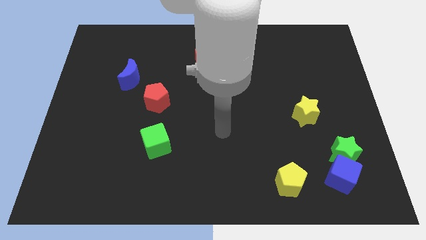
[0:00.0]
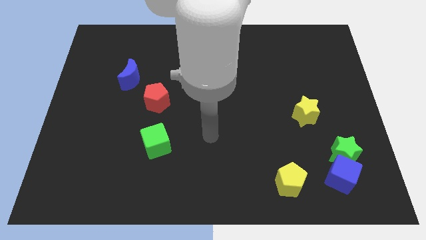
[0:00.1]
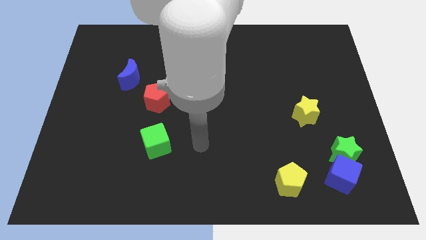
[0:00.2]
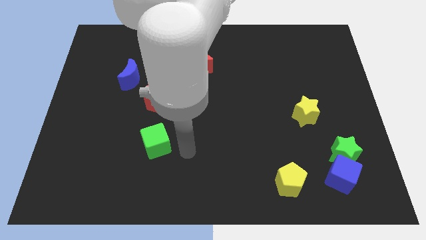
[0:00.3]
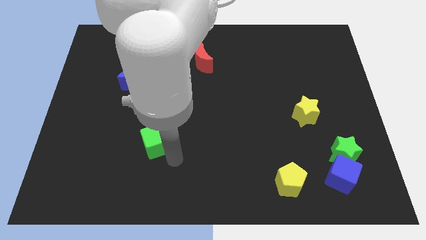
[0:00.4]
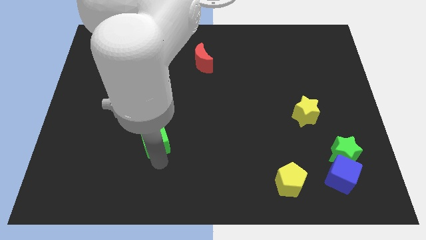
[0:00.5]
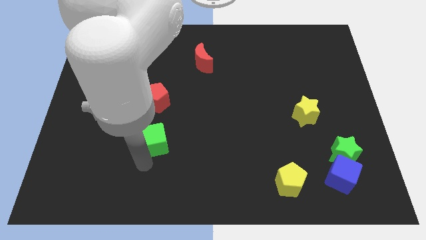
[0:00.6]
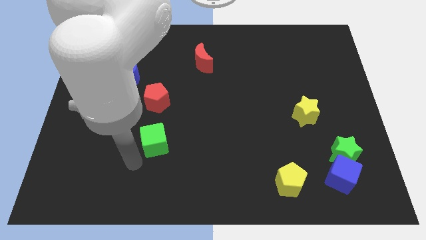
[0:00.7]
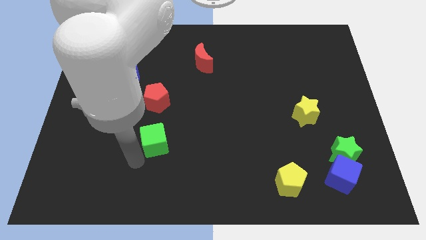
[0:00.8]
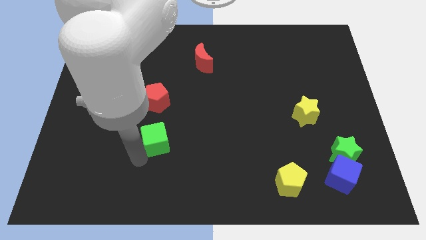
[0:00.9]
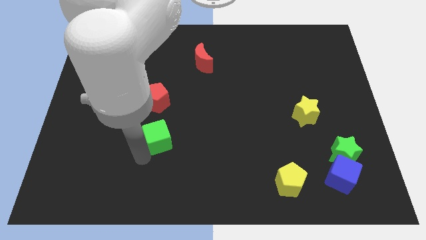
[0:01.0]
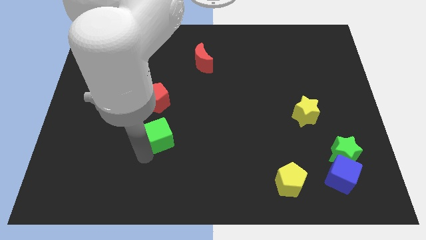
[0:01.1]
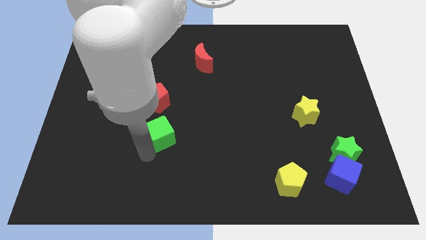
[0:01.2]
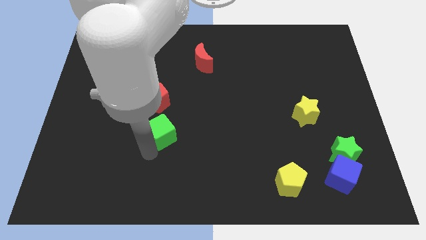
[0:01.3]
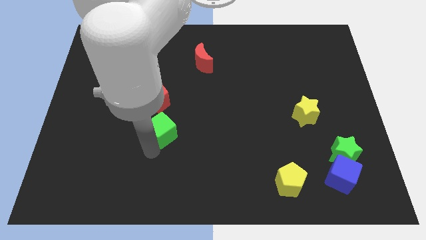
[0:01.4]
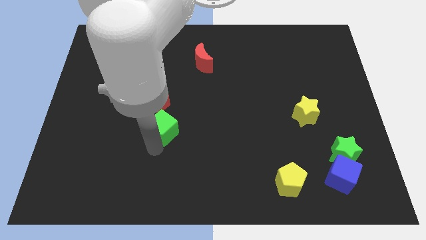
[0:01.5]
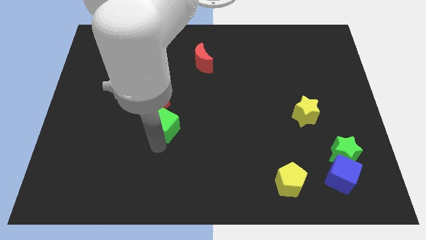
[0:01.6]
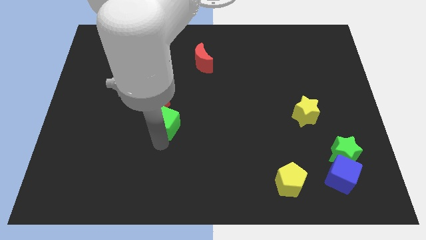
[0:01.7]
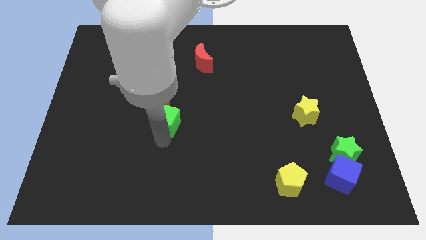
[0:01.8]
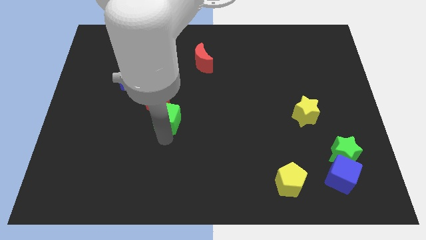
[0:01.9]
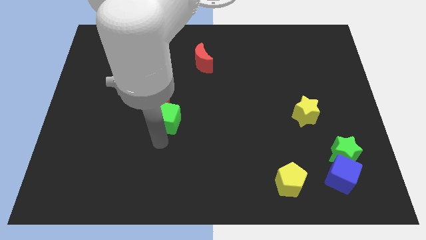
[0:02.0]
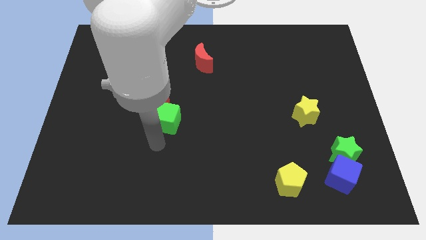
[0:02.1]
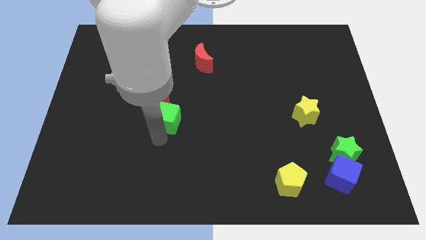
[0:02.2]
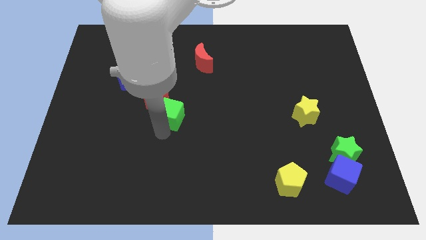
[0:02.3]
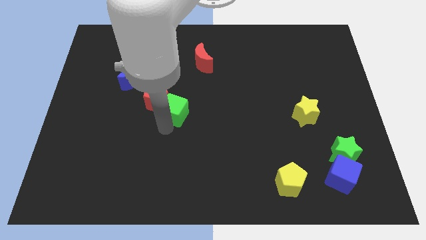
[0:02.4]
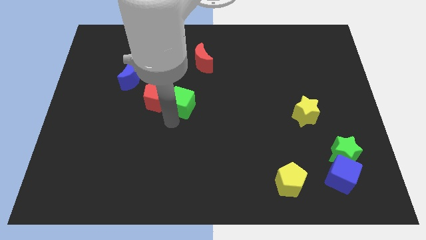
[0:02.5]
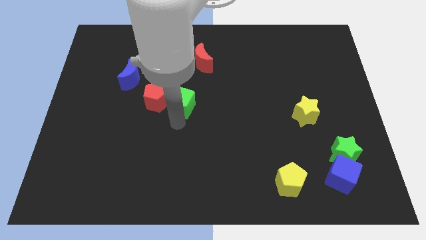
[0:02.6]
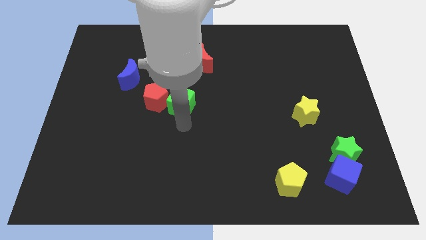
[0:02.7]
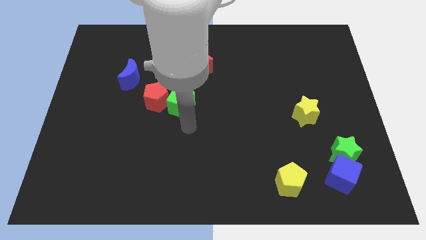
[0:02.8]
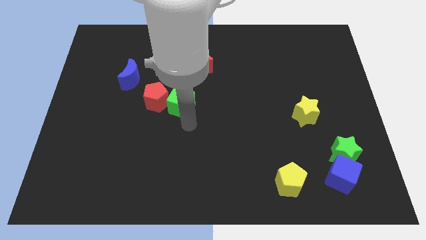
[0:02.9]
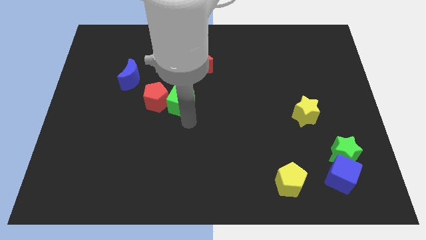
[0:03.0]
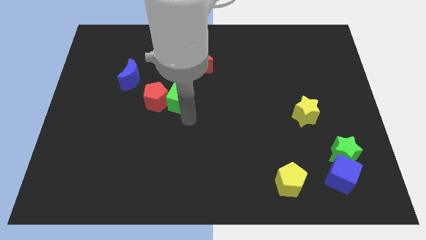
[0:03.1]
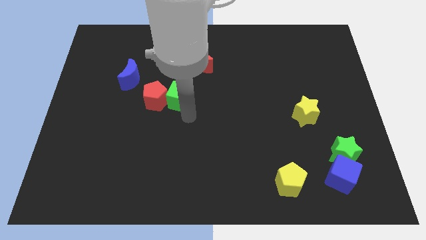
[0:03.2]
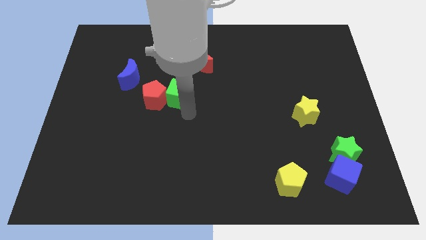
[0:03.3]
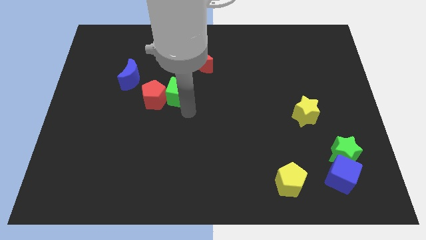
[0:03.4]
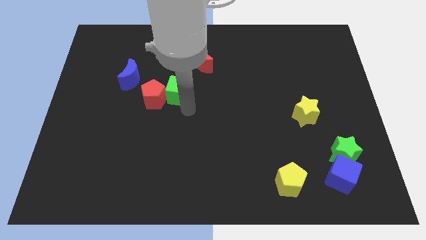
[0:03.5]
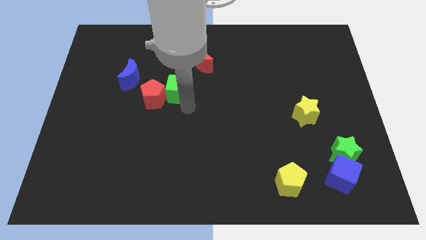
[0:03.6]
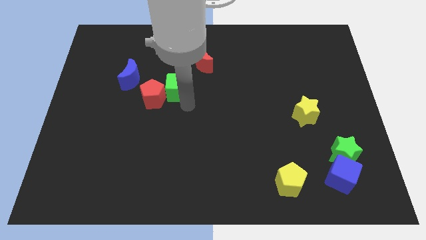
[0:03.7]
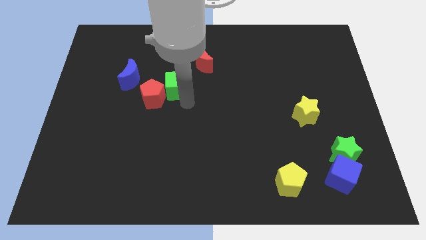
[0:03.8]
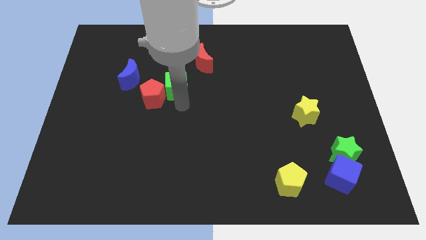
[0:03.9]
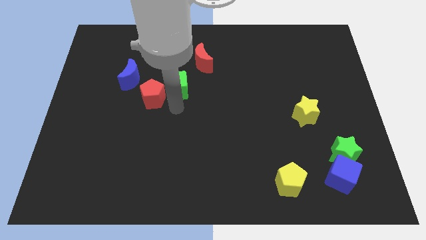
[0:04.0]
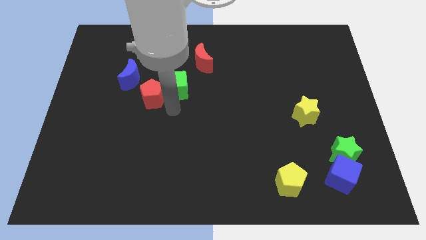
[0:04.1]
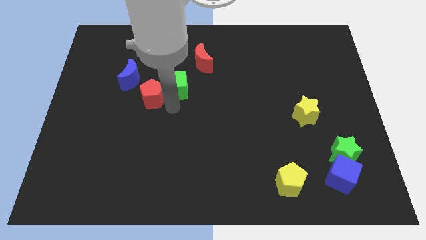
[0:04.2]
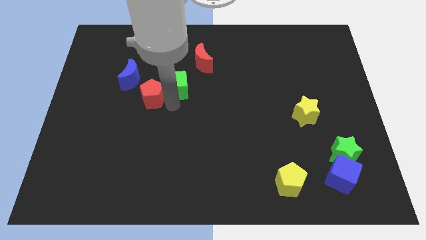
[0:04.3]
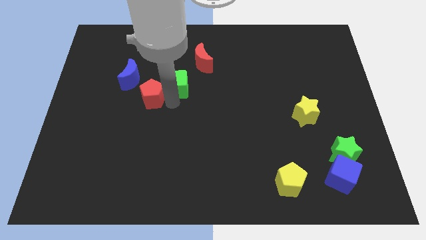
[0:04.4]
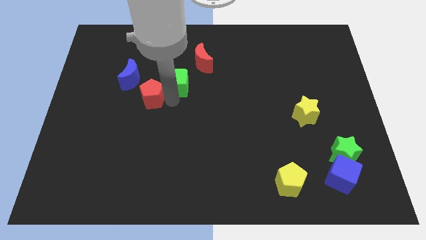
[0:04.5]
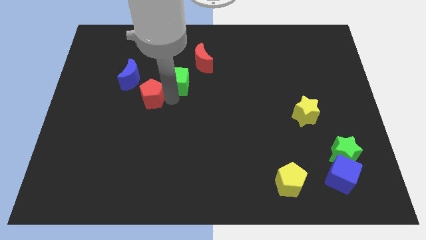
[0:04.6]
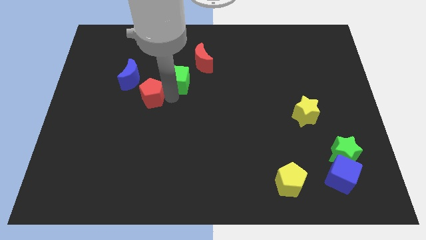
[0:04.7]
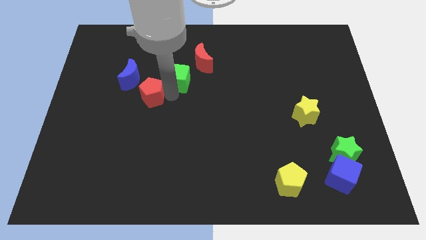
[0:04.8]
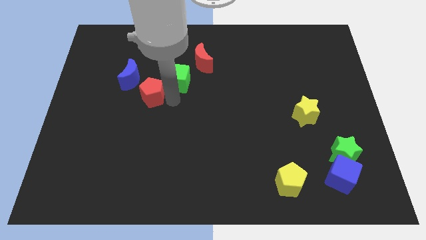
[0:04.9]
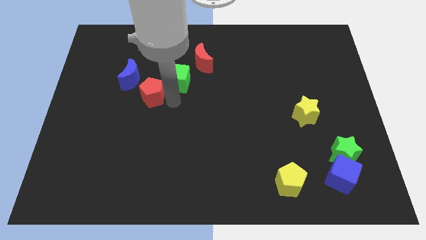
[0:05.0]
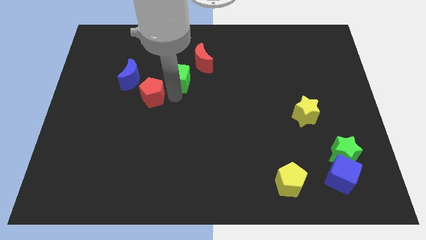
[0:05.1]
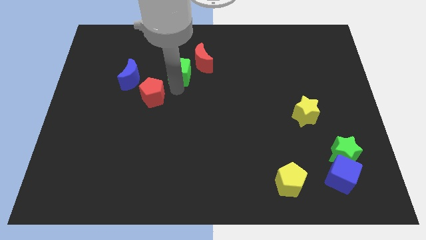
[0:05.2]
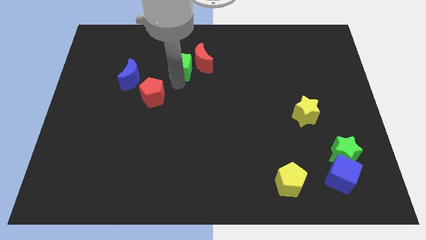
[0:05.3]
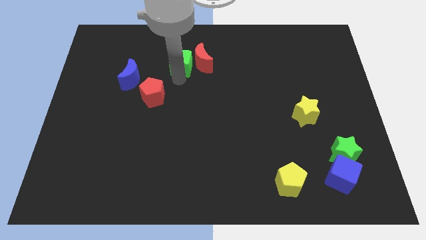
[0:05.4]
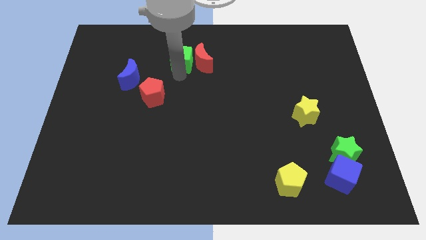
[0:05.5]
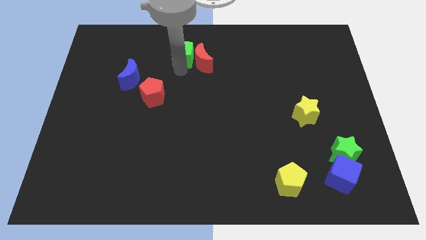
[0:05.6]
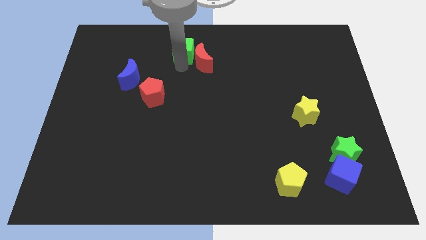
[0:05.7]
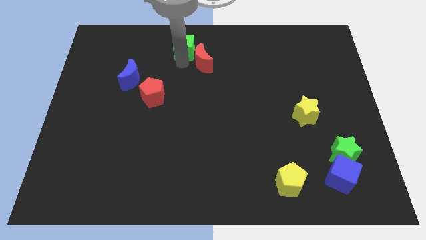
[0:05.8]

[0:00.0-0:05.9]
push the green cube to the towards your base
